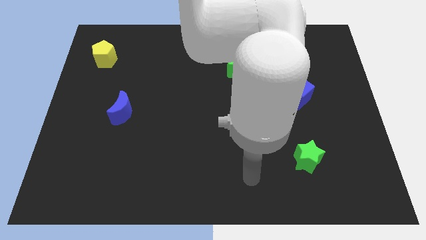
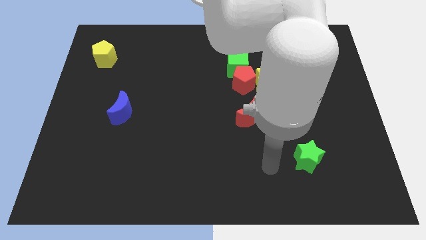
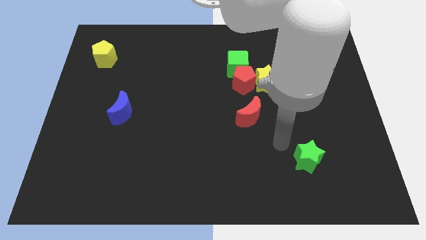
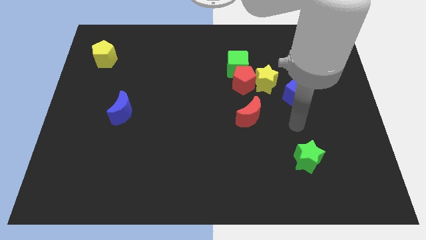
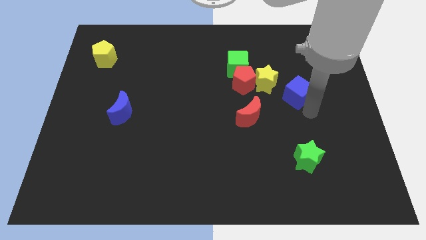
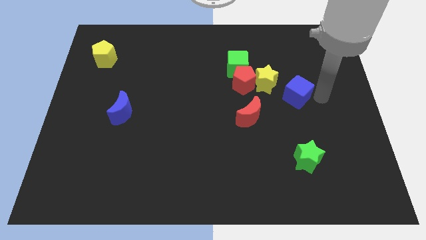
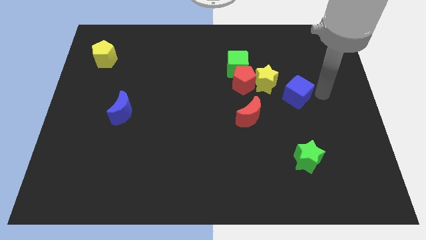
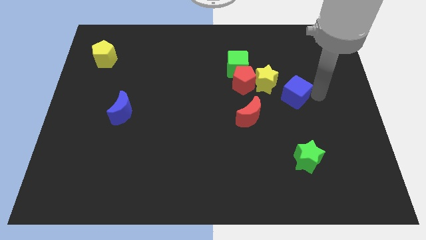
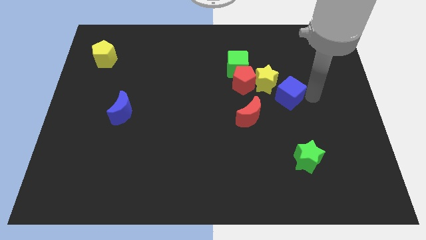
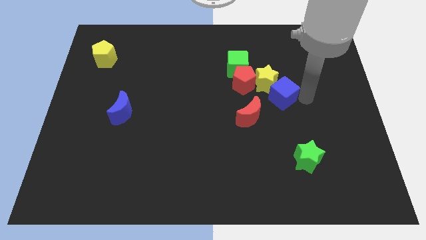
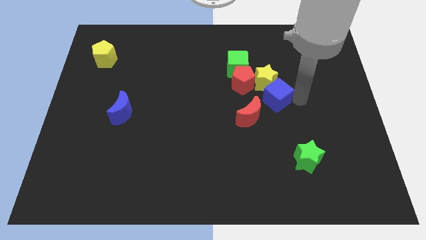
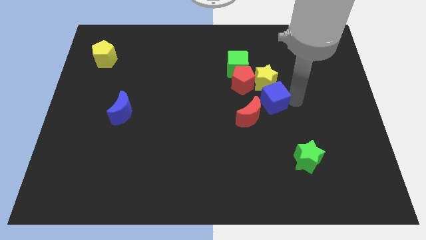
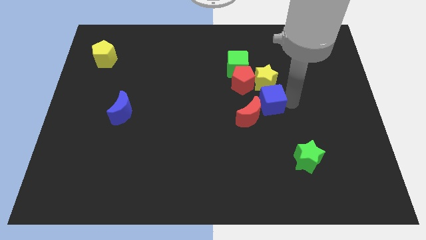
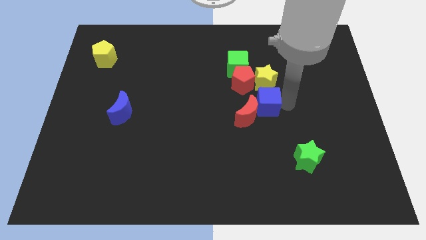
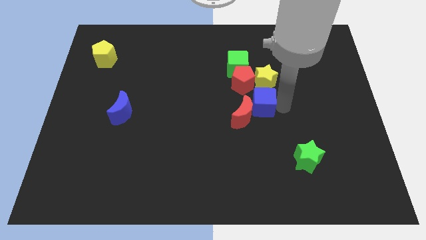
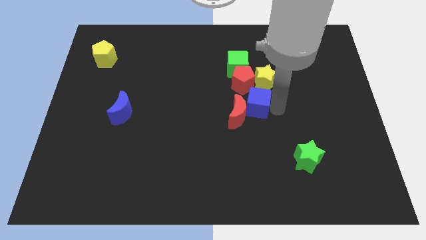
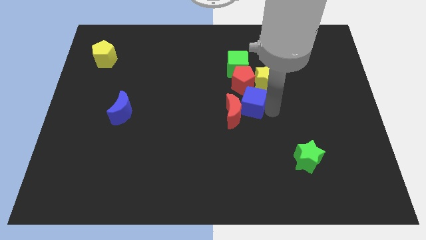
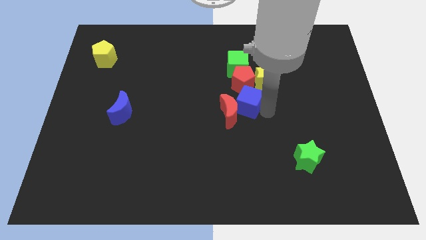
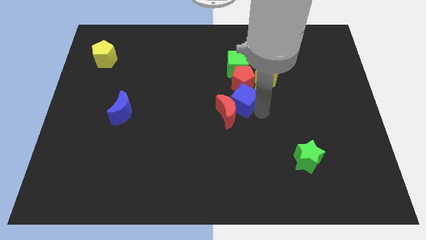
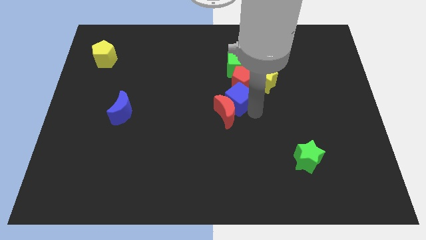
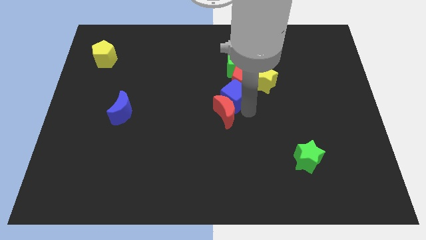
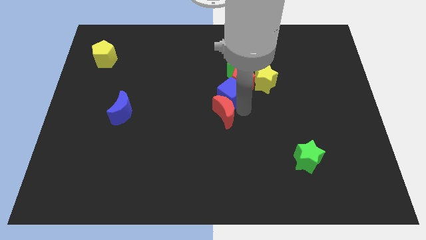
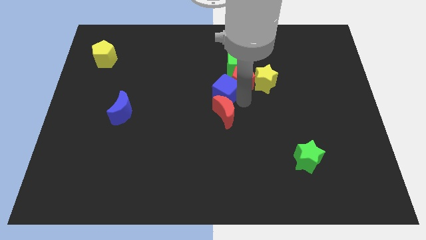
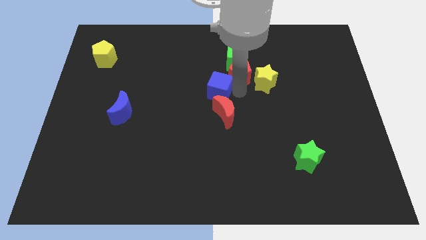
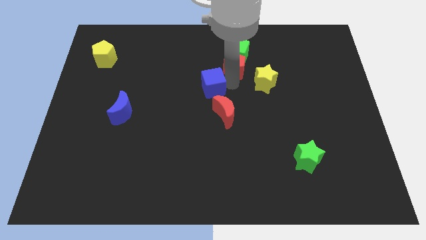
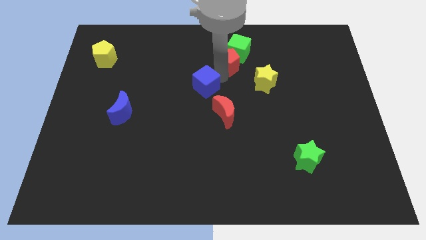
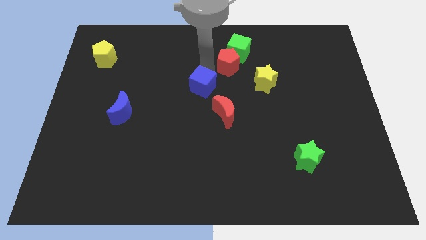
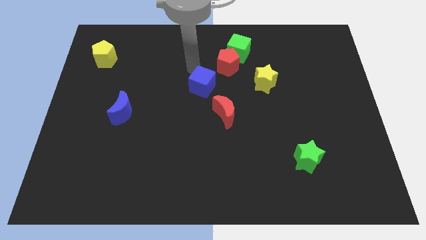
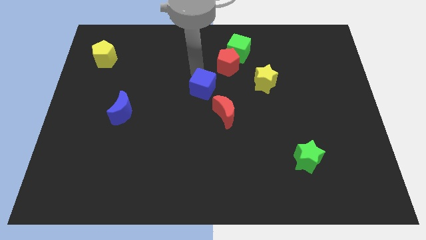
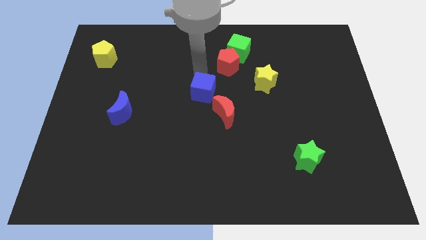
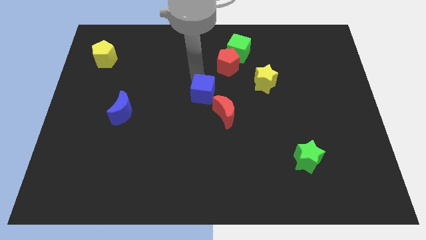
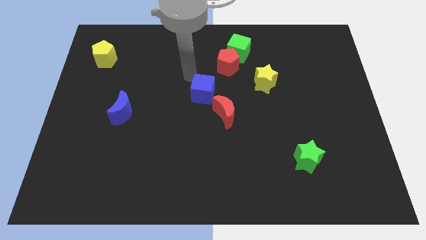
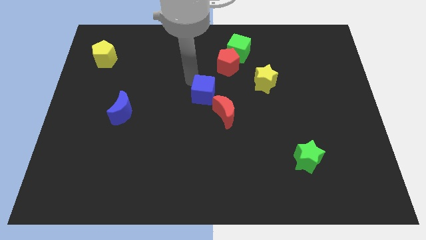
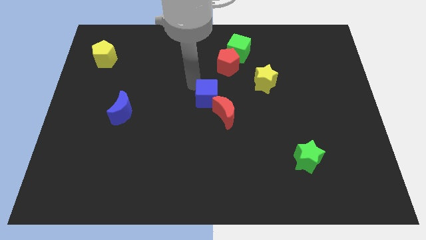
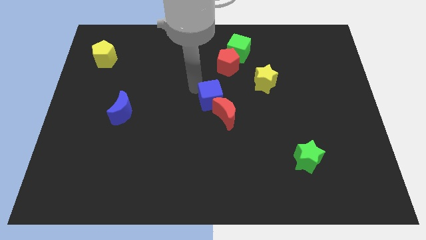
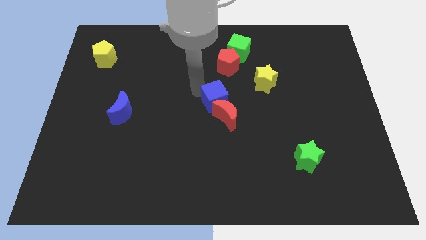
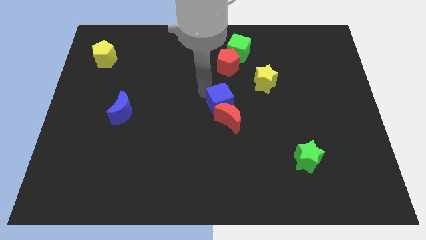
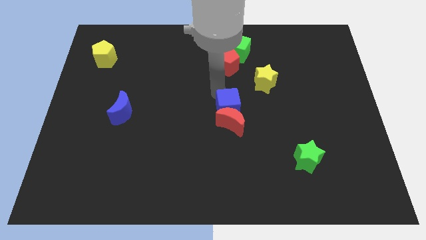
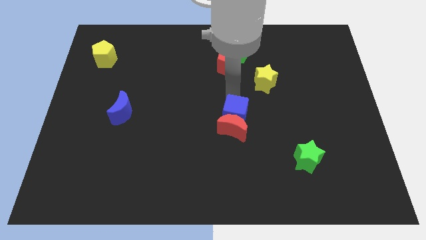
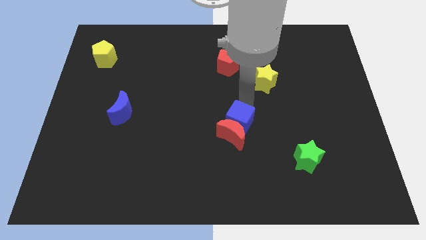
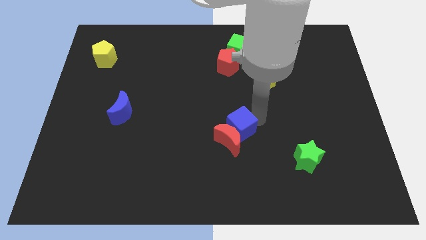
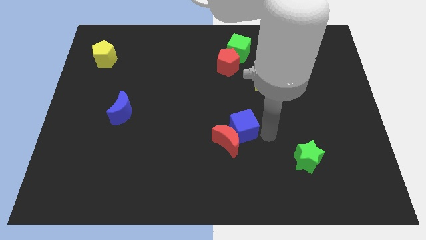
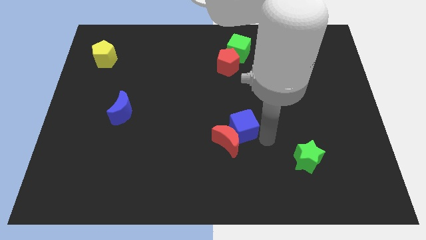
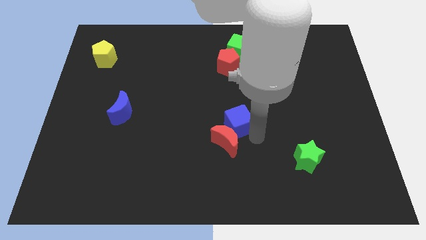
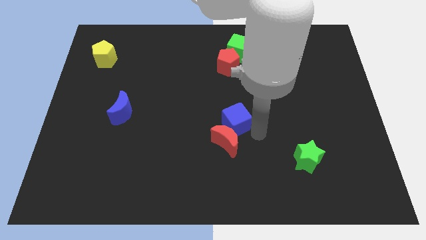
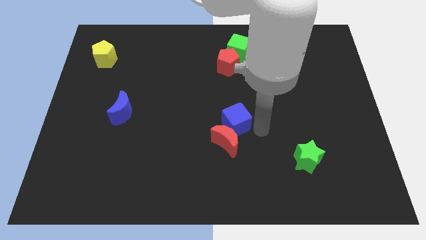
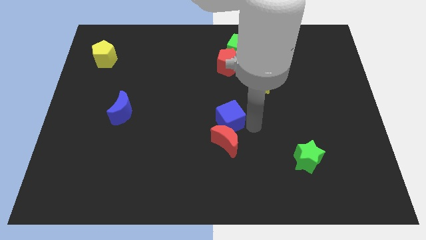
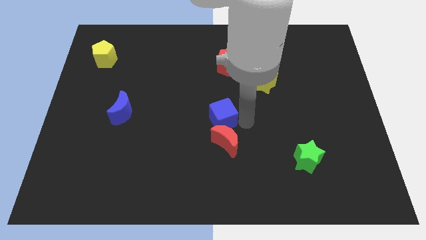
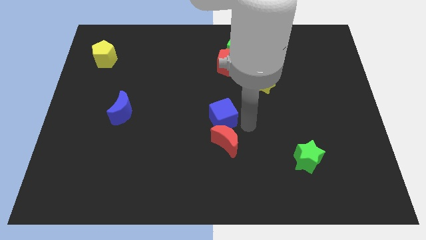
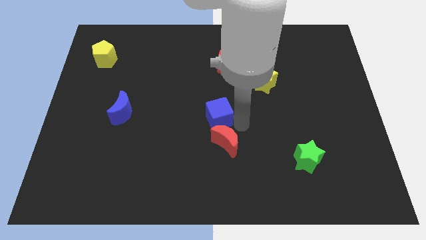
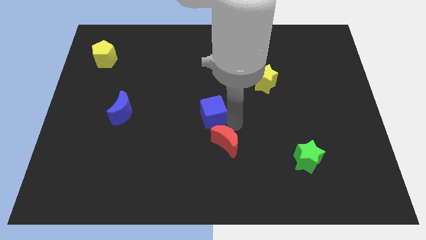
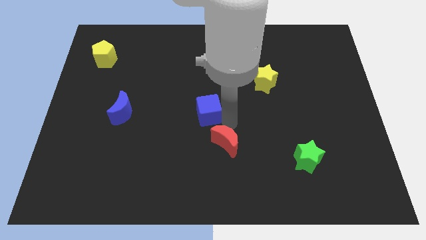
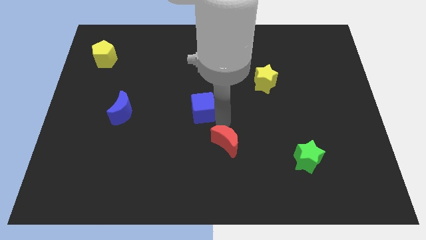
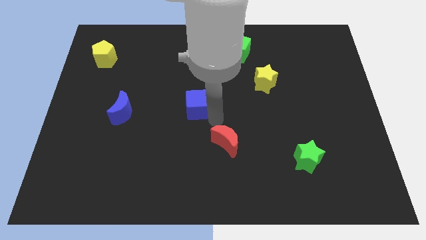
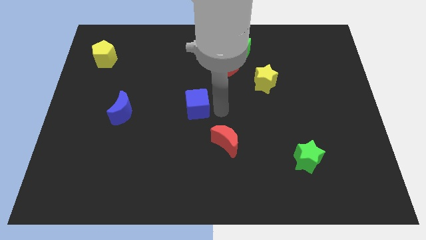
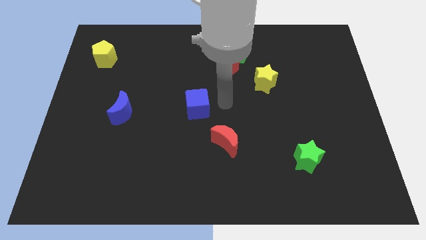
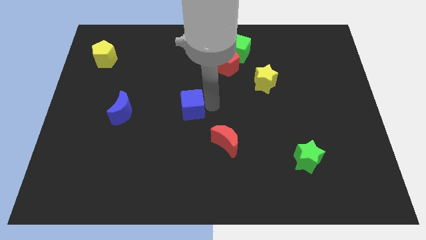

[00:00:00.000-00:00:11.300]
move the blue cube to the right side of the blue moon

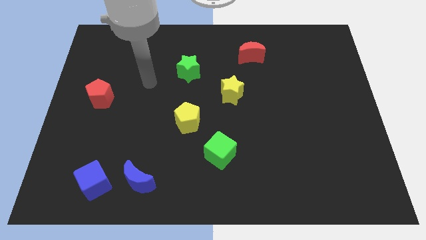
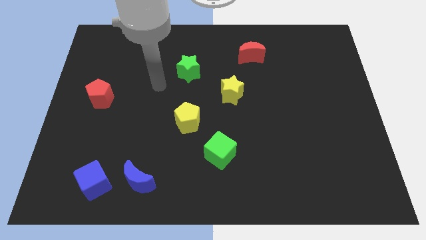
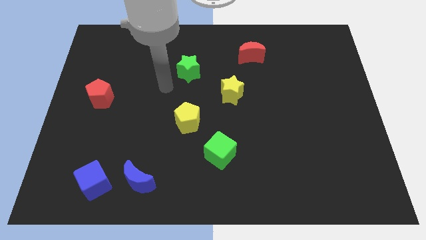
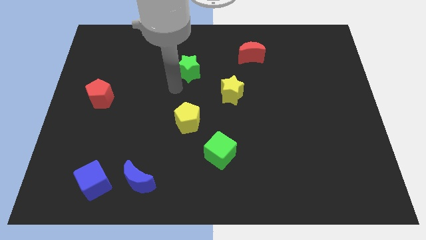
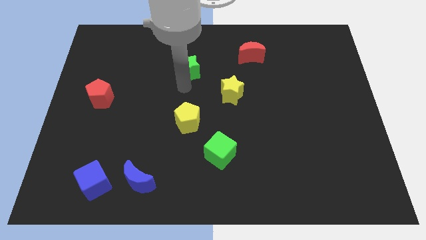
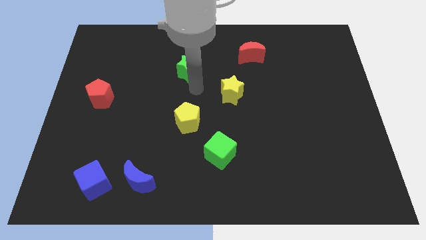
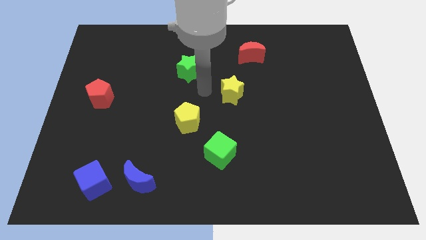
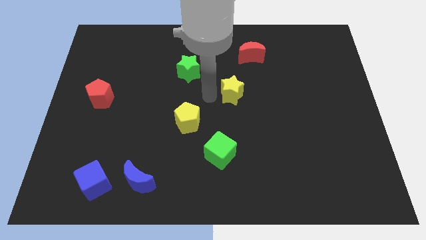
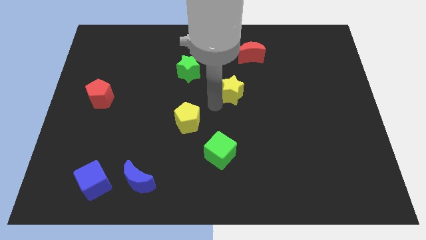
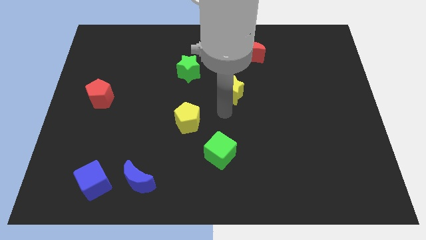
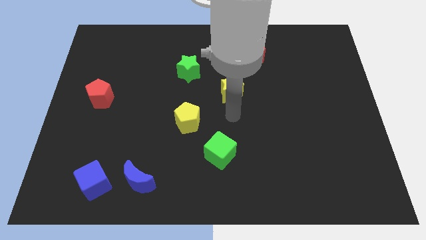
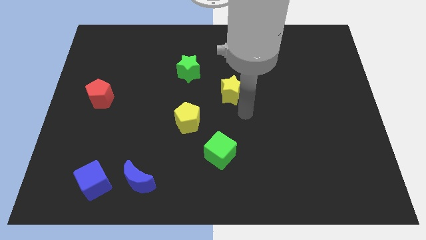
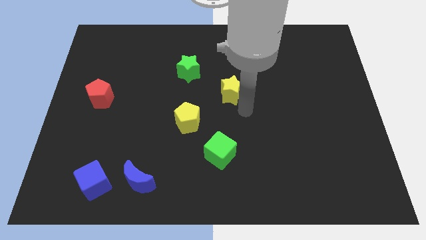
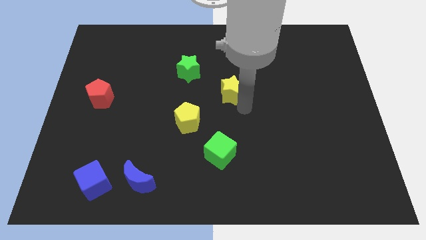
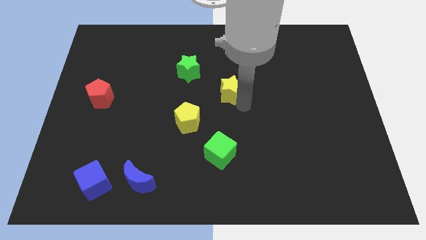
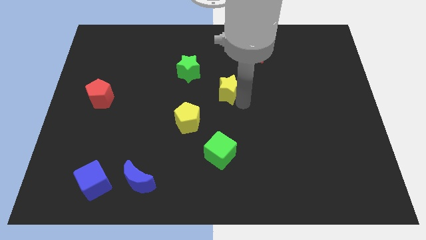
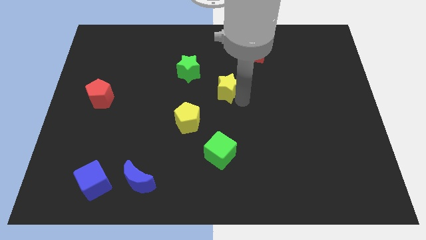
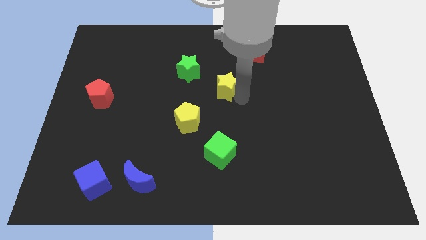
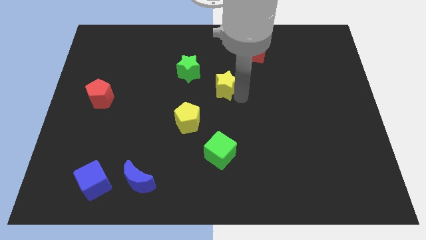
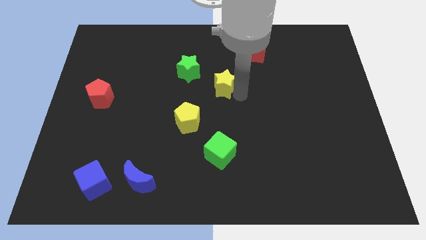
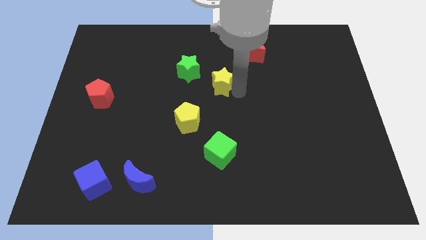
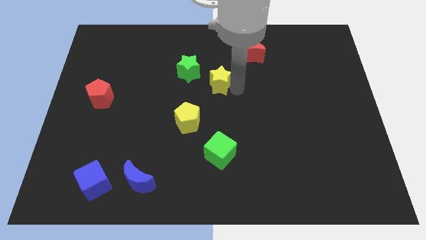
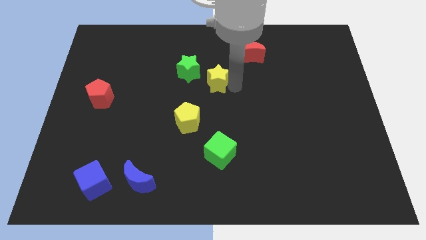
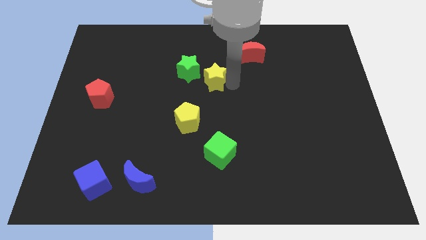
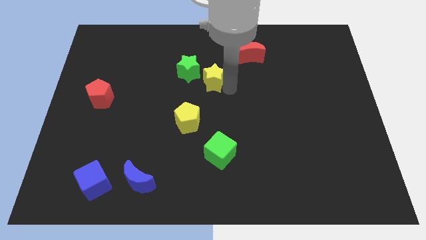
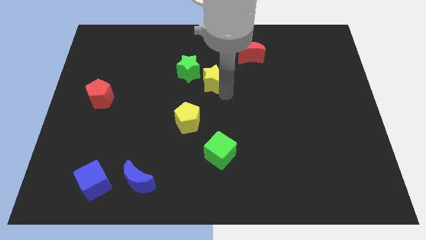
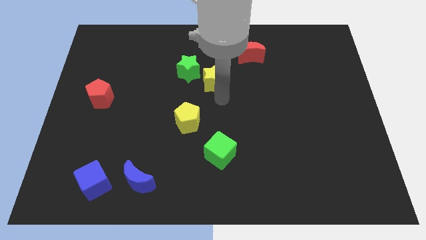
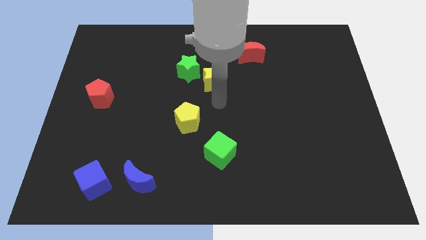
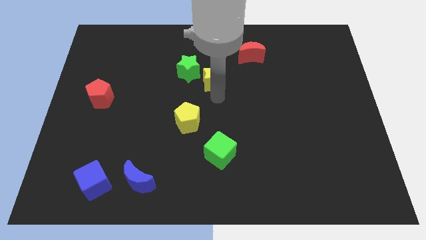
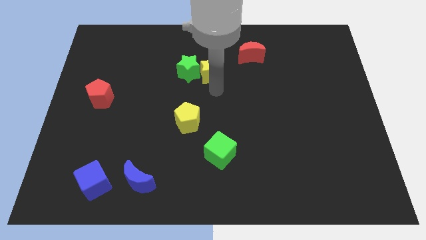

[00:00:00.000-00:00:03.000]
put the yellow star diagonally up and to the right of the green star
